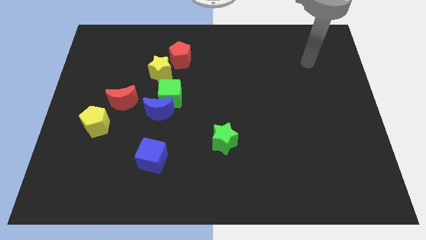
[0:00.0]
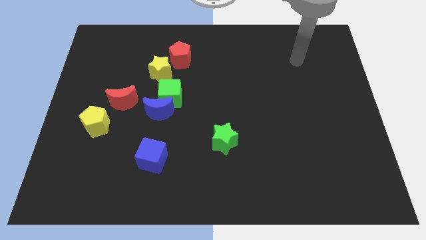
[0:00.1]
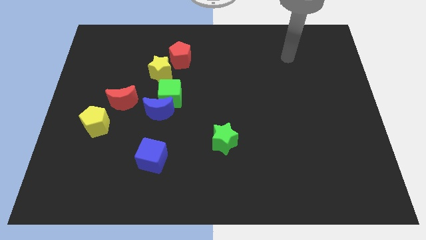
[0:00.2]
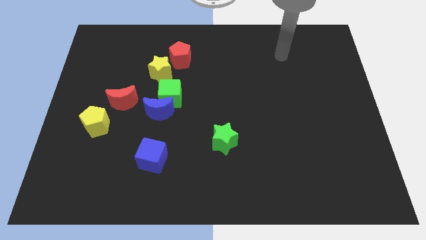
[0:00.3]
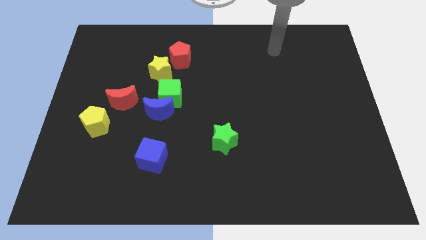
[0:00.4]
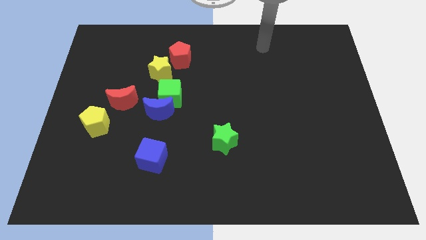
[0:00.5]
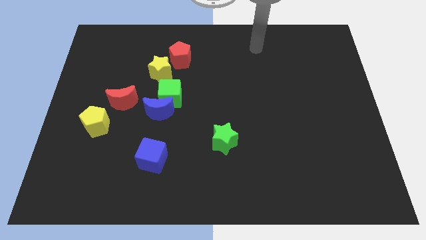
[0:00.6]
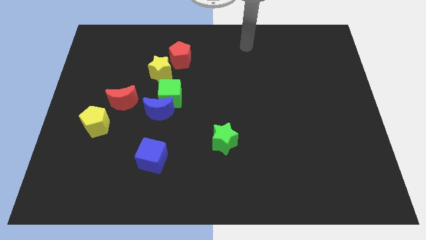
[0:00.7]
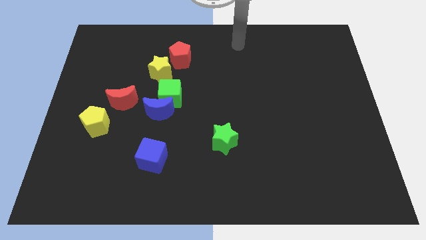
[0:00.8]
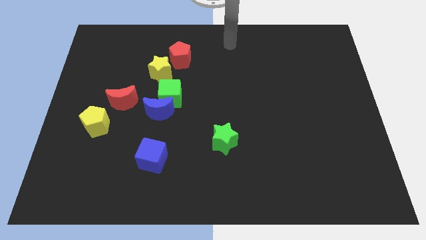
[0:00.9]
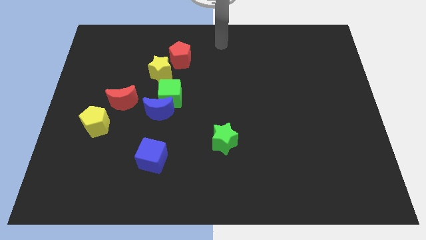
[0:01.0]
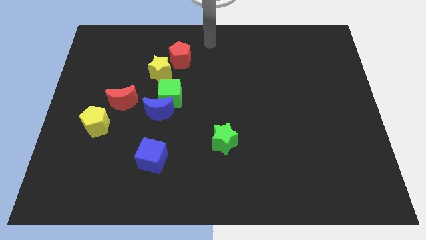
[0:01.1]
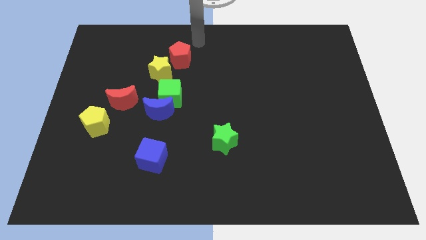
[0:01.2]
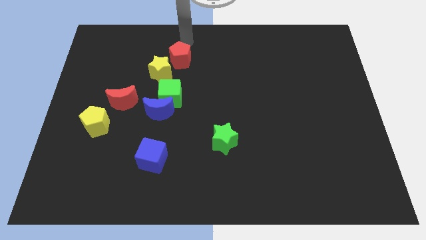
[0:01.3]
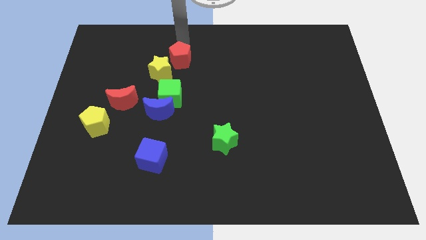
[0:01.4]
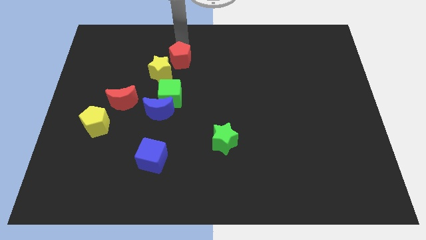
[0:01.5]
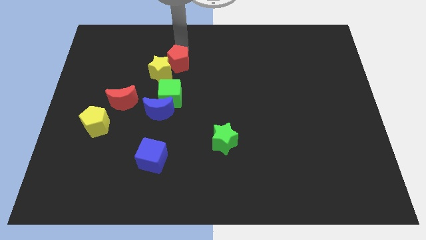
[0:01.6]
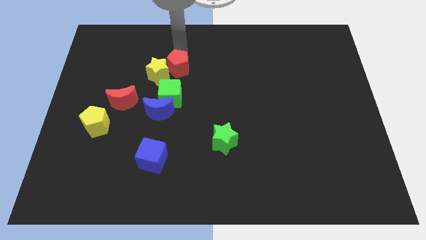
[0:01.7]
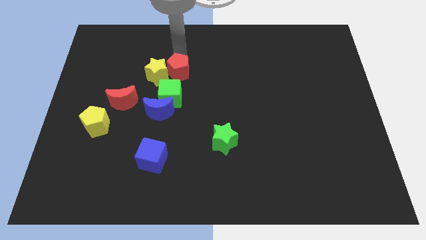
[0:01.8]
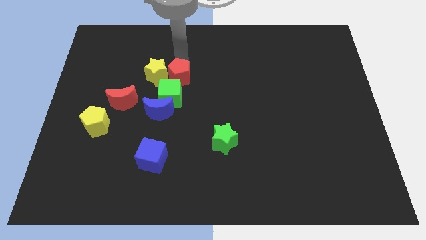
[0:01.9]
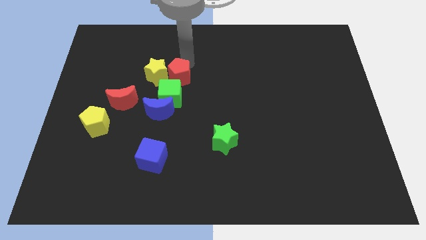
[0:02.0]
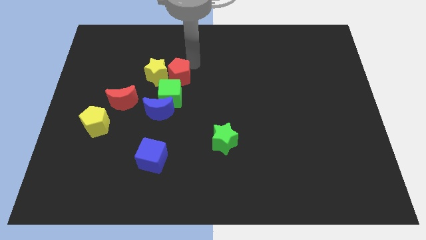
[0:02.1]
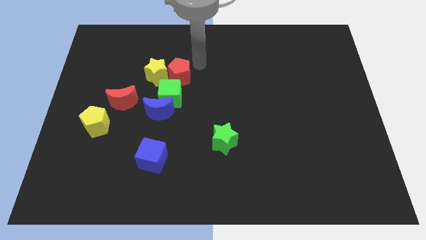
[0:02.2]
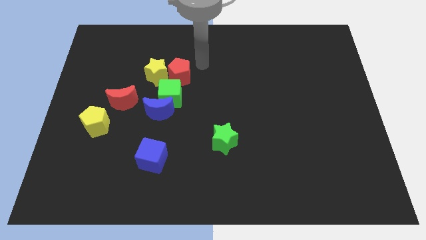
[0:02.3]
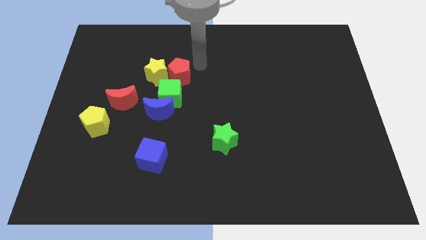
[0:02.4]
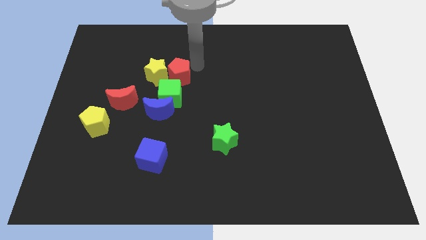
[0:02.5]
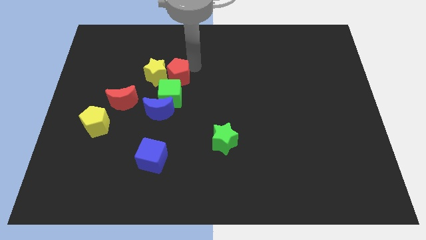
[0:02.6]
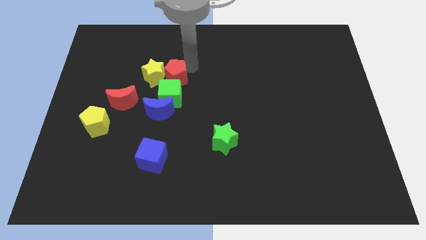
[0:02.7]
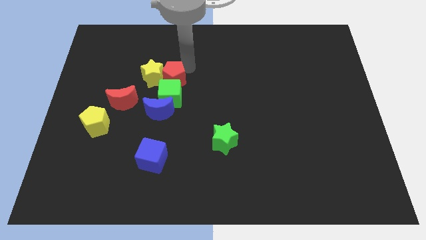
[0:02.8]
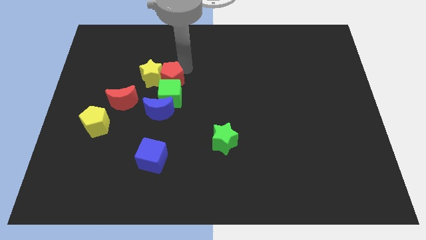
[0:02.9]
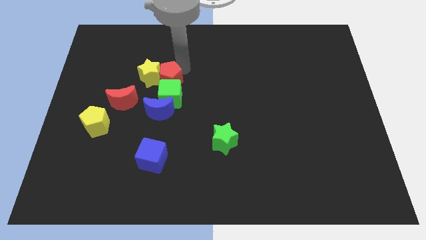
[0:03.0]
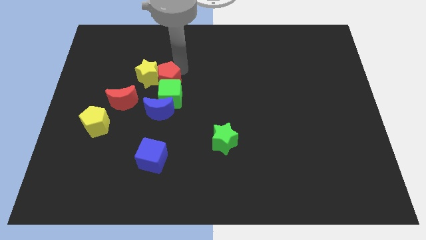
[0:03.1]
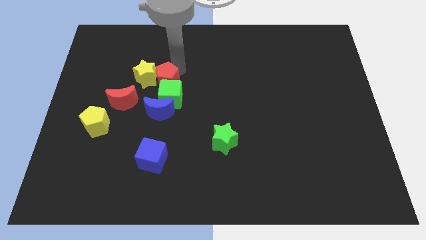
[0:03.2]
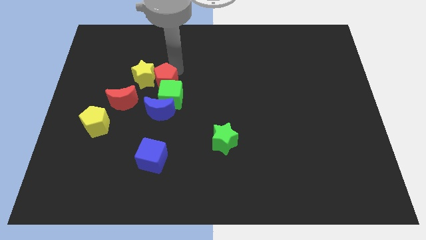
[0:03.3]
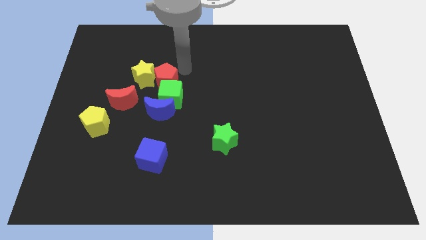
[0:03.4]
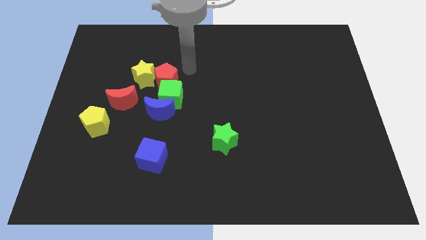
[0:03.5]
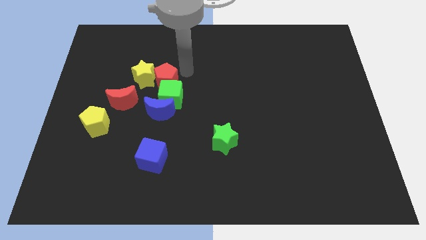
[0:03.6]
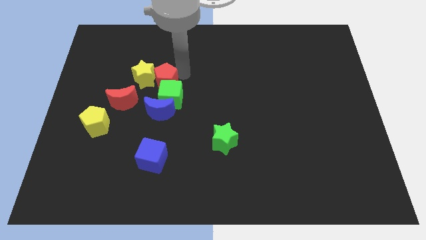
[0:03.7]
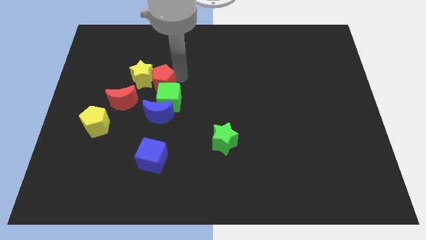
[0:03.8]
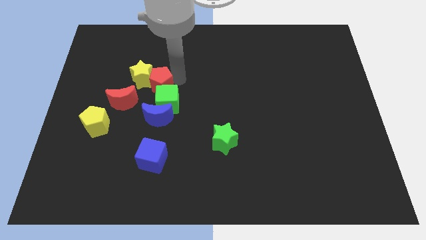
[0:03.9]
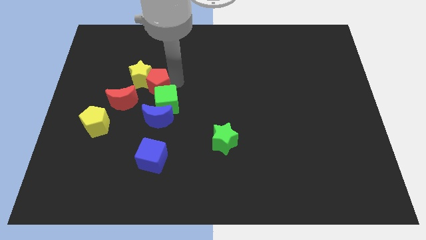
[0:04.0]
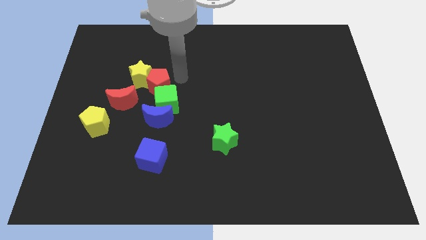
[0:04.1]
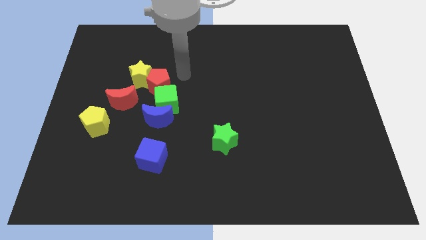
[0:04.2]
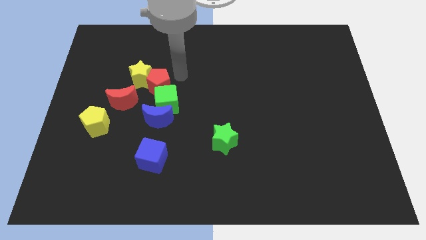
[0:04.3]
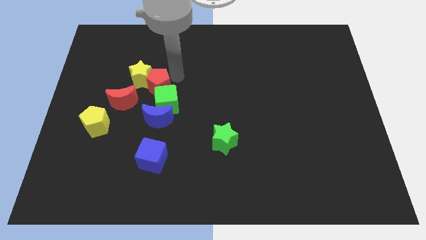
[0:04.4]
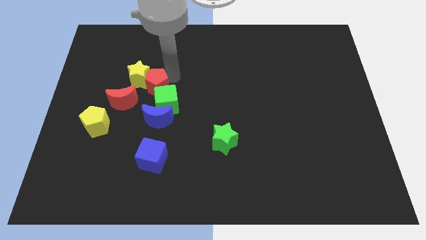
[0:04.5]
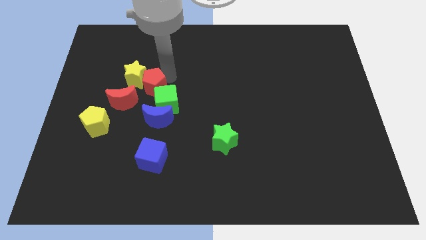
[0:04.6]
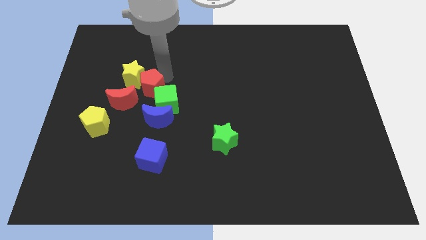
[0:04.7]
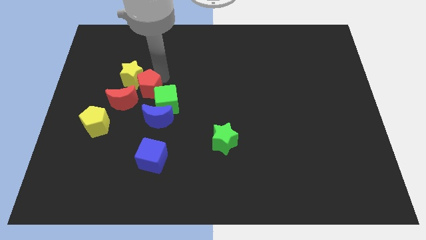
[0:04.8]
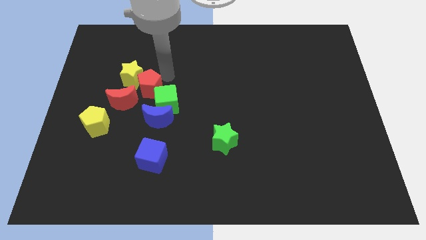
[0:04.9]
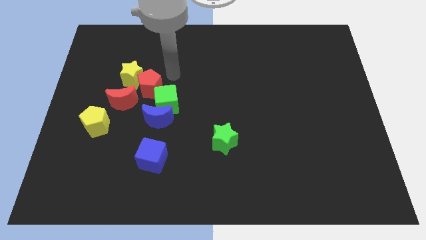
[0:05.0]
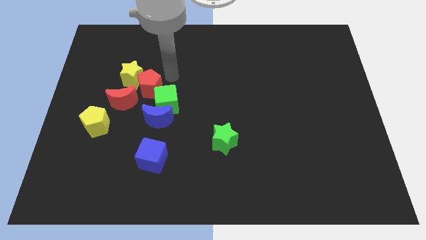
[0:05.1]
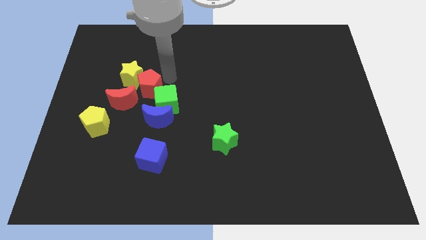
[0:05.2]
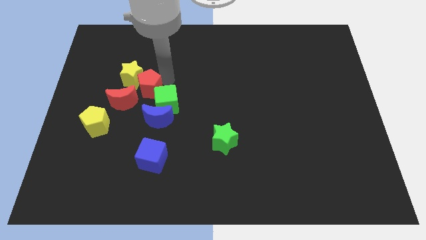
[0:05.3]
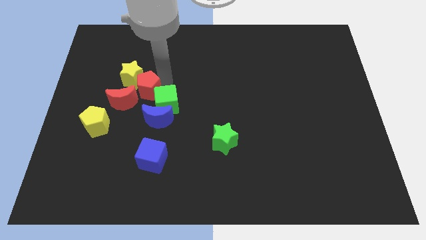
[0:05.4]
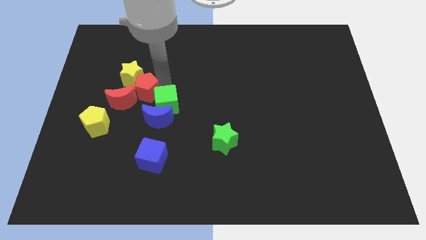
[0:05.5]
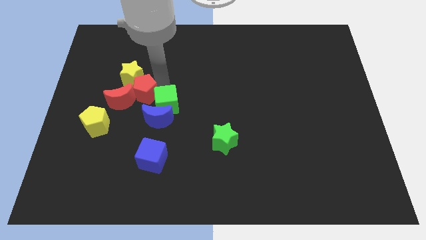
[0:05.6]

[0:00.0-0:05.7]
put the red pentagon towards the red moon

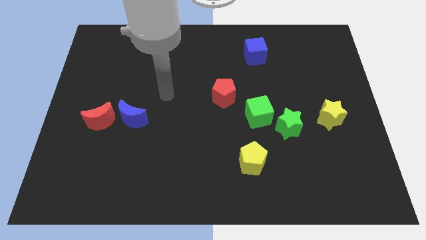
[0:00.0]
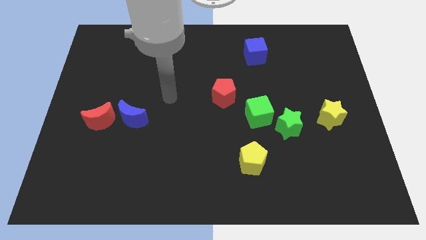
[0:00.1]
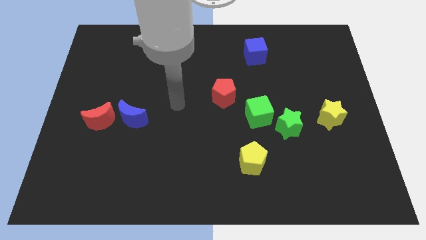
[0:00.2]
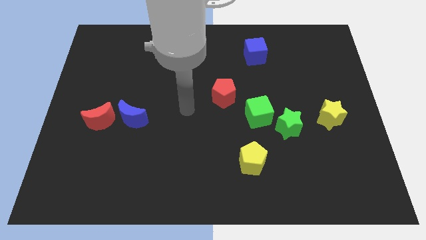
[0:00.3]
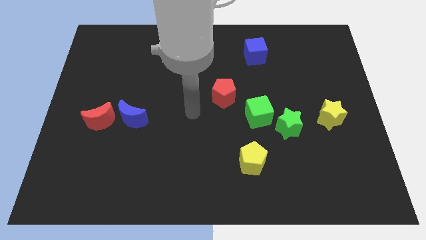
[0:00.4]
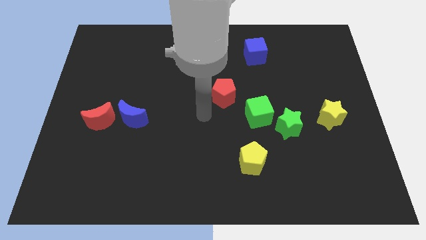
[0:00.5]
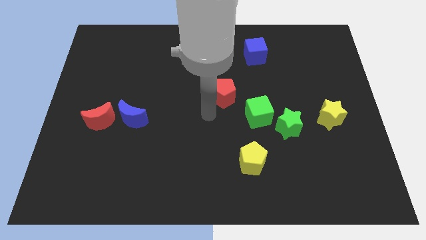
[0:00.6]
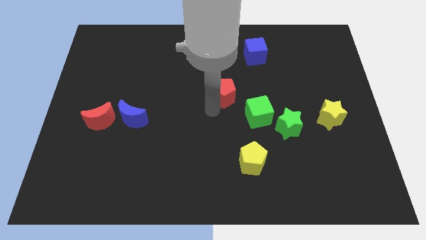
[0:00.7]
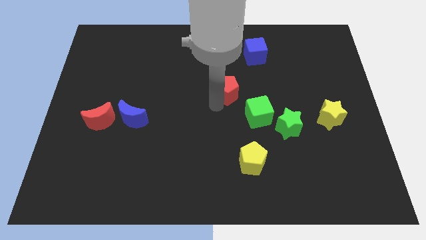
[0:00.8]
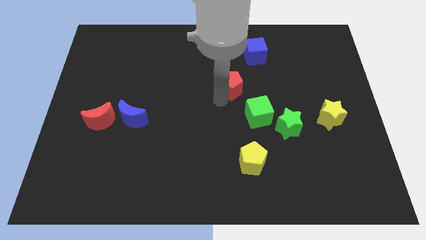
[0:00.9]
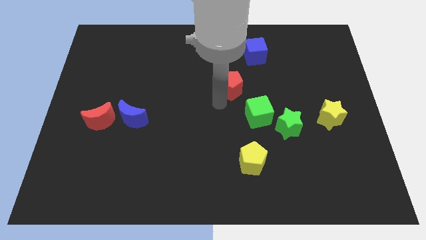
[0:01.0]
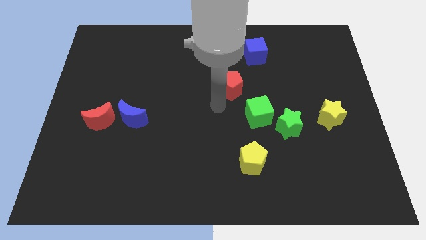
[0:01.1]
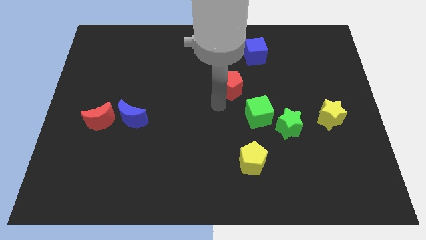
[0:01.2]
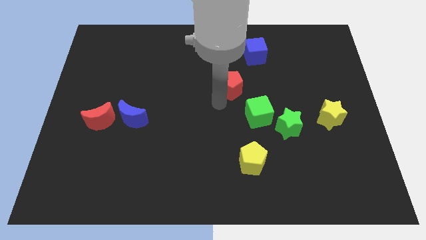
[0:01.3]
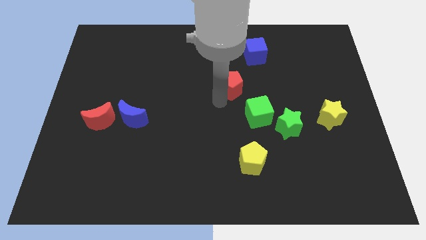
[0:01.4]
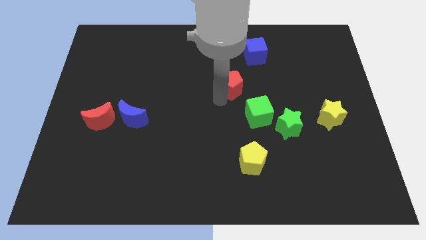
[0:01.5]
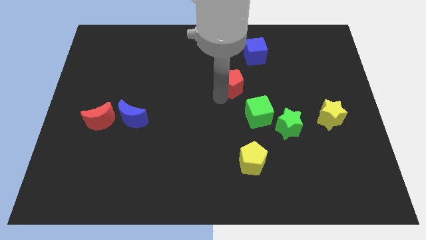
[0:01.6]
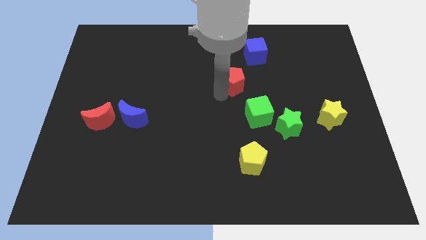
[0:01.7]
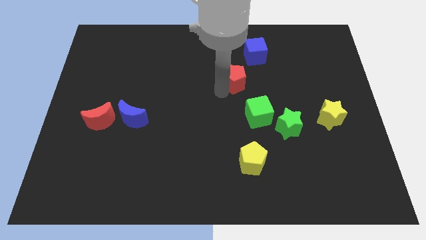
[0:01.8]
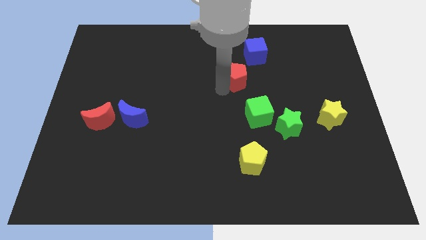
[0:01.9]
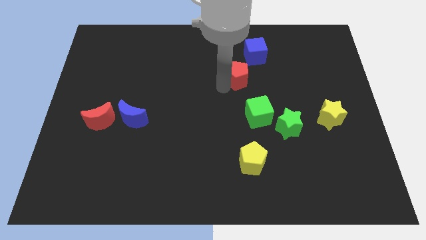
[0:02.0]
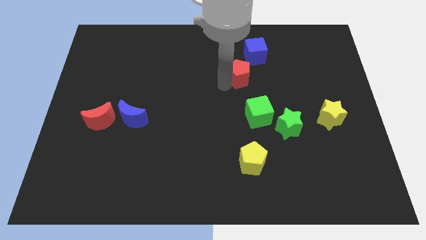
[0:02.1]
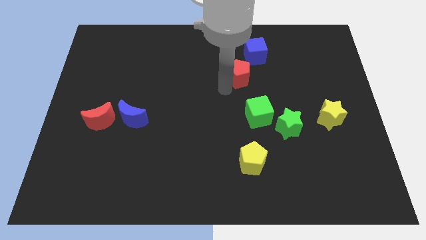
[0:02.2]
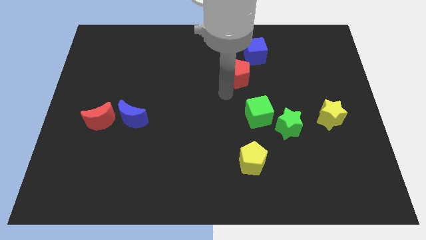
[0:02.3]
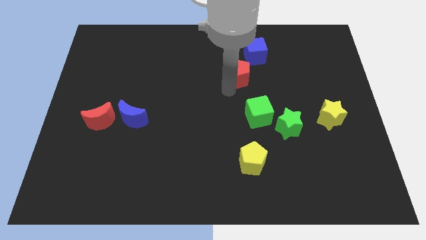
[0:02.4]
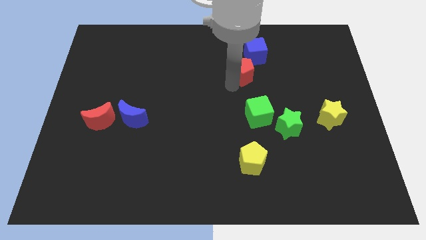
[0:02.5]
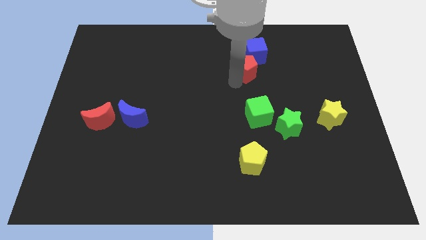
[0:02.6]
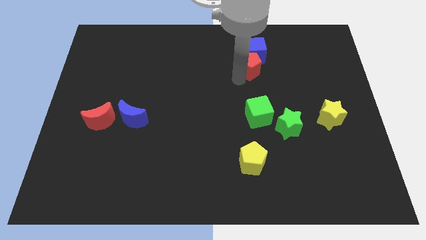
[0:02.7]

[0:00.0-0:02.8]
move the red pentagon close to the blue cube
